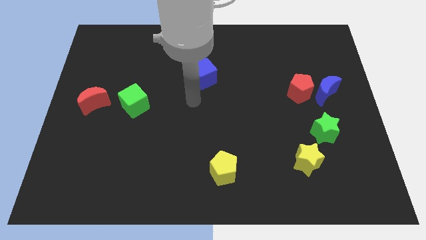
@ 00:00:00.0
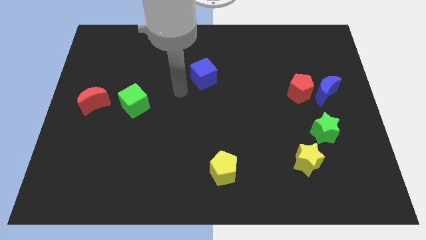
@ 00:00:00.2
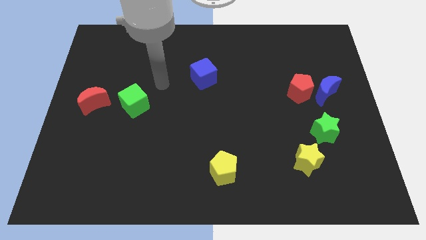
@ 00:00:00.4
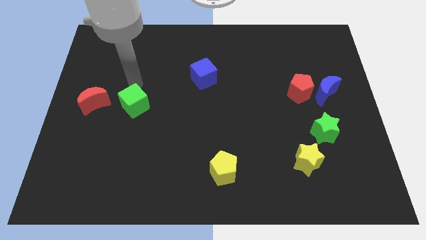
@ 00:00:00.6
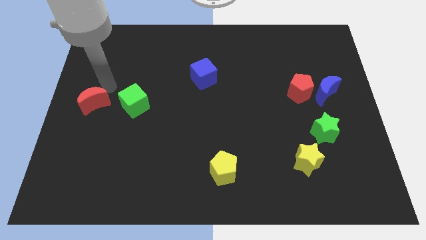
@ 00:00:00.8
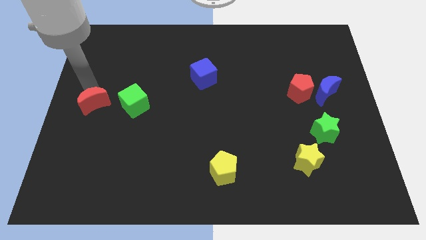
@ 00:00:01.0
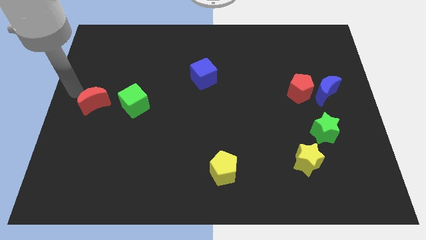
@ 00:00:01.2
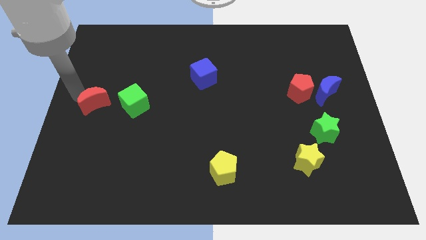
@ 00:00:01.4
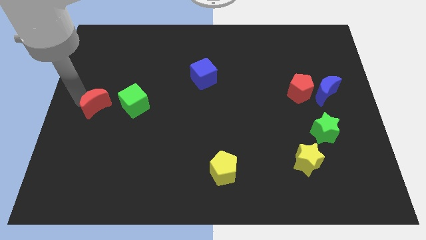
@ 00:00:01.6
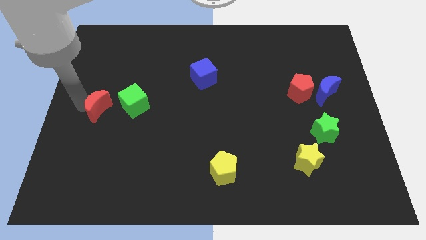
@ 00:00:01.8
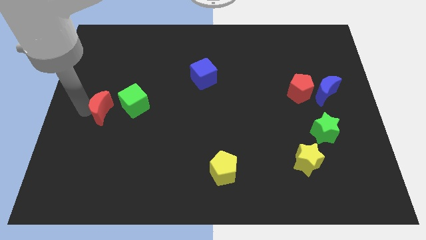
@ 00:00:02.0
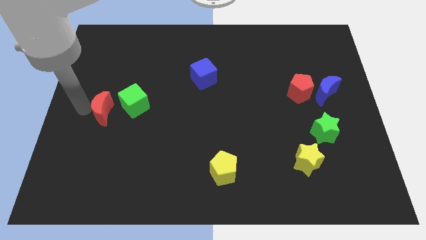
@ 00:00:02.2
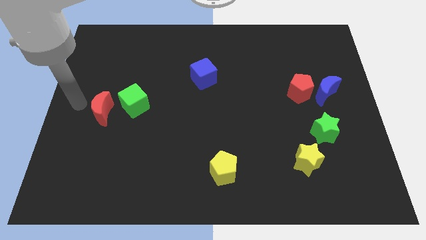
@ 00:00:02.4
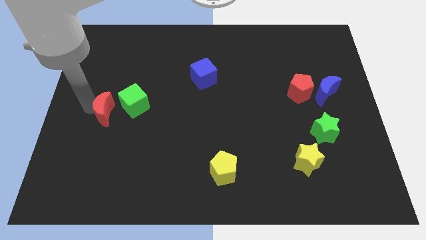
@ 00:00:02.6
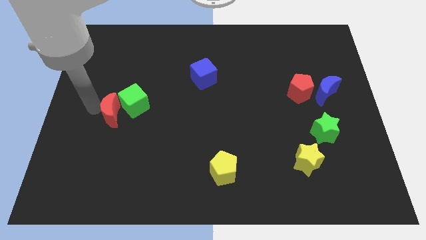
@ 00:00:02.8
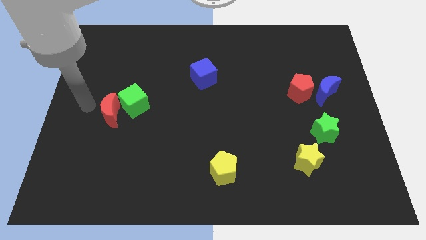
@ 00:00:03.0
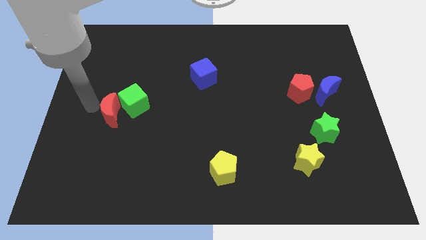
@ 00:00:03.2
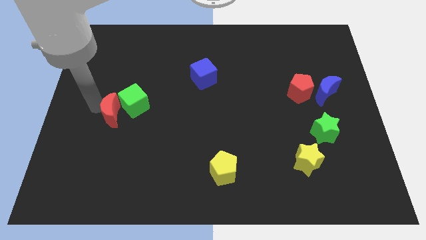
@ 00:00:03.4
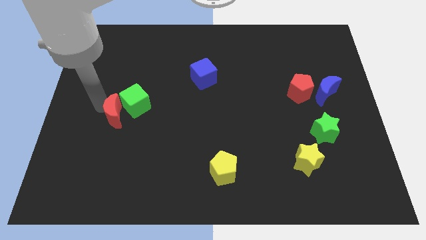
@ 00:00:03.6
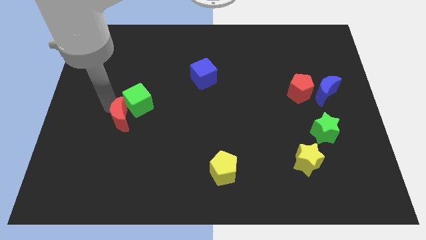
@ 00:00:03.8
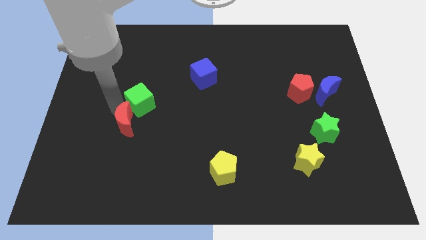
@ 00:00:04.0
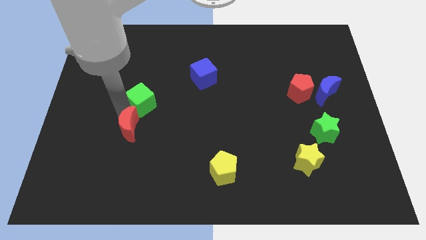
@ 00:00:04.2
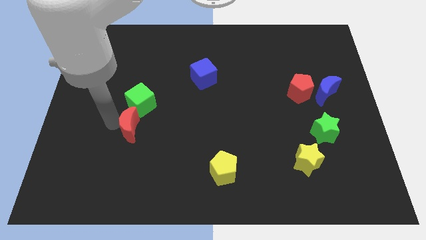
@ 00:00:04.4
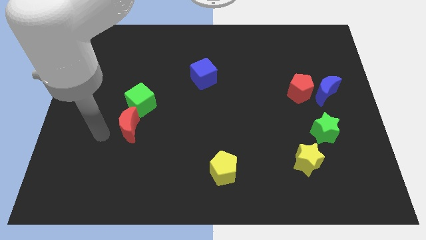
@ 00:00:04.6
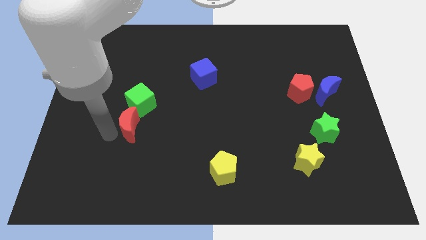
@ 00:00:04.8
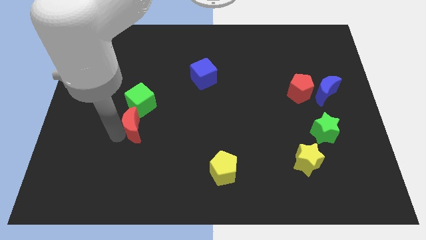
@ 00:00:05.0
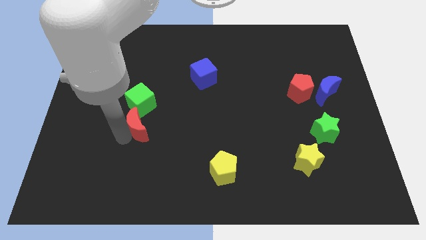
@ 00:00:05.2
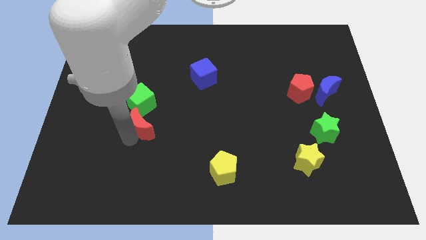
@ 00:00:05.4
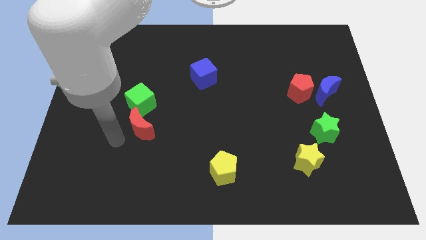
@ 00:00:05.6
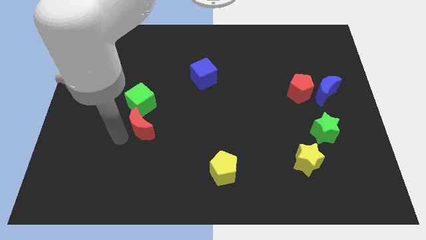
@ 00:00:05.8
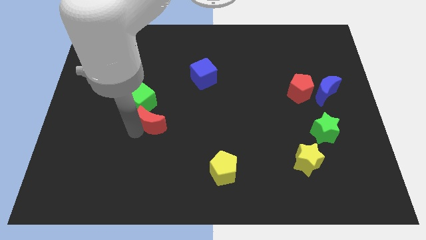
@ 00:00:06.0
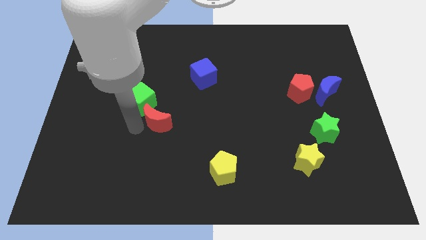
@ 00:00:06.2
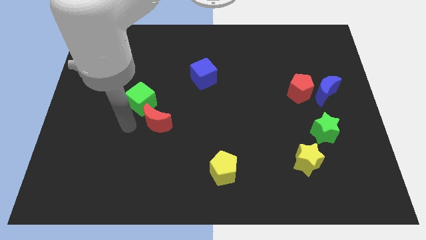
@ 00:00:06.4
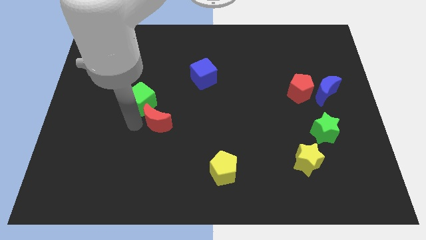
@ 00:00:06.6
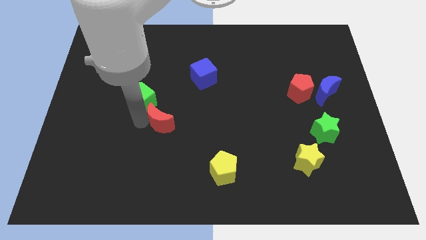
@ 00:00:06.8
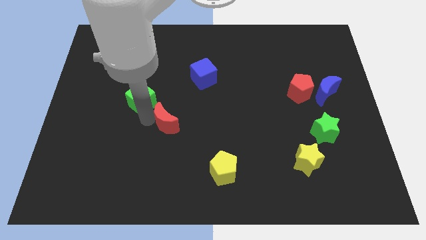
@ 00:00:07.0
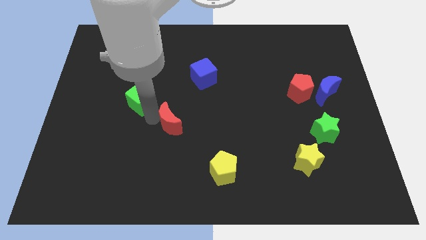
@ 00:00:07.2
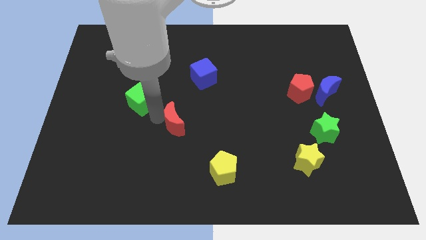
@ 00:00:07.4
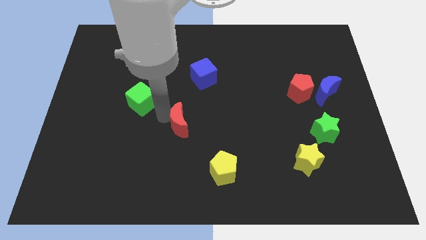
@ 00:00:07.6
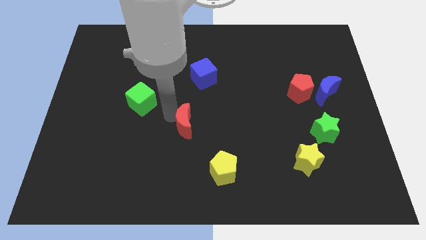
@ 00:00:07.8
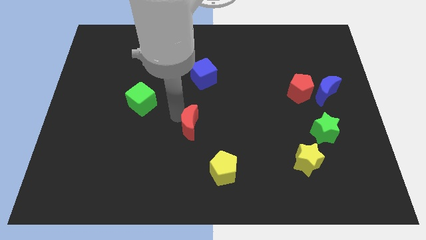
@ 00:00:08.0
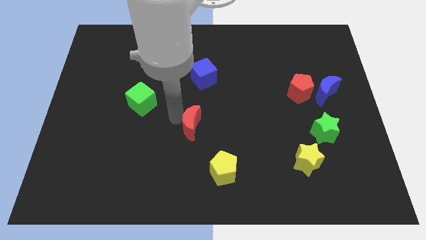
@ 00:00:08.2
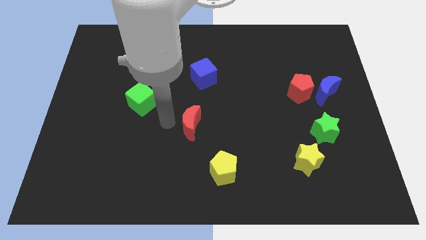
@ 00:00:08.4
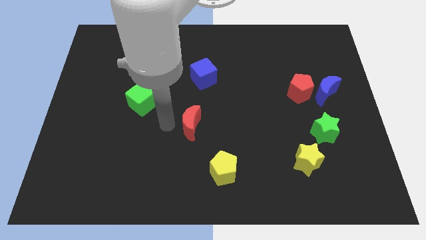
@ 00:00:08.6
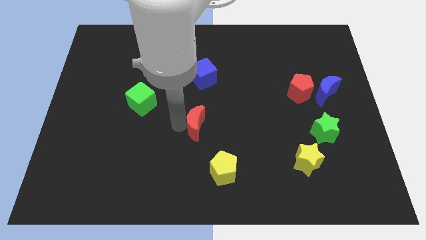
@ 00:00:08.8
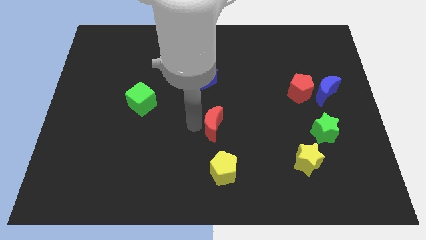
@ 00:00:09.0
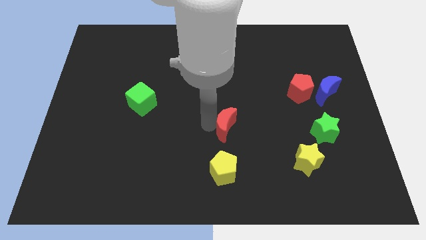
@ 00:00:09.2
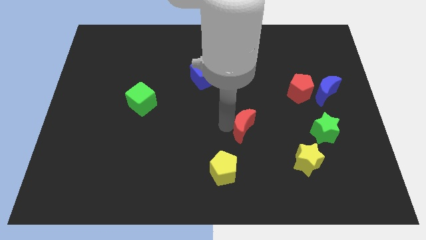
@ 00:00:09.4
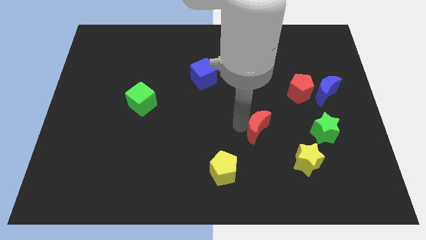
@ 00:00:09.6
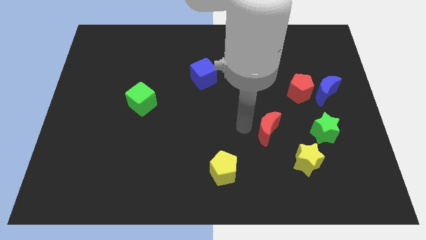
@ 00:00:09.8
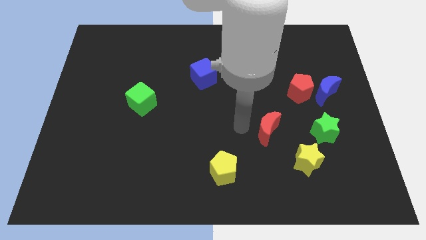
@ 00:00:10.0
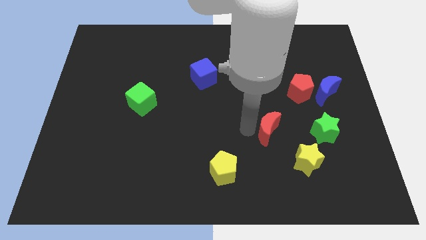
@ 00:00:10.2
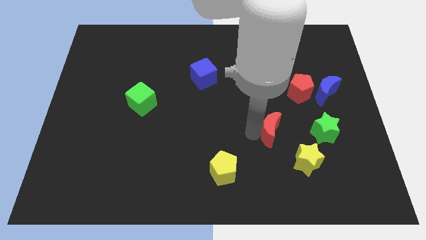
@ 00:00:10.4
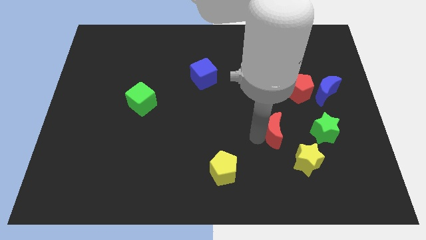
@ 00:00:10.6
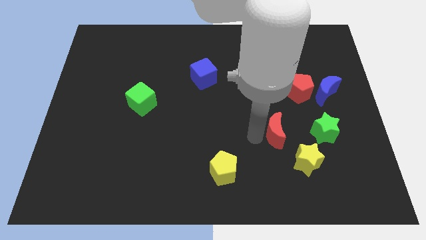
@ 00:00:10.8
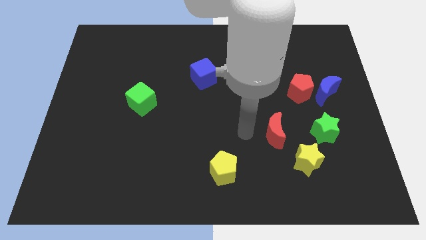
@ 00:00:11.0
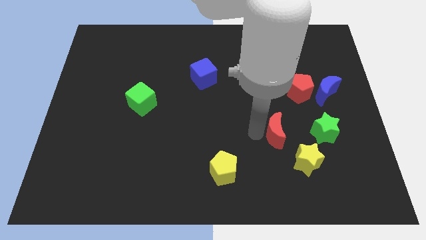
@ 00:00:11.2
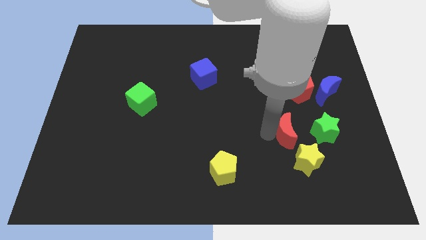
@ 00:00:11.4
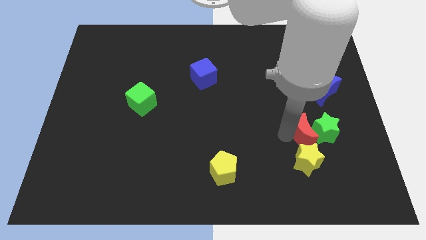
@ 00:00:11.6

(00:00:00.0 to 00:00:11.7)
slide the red moon close to the green star

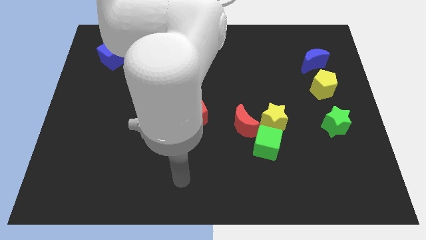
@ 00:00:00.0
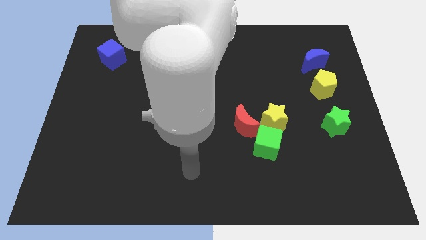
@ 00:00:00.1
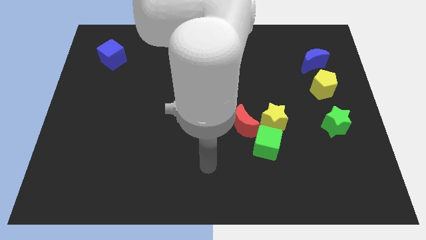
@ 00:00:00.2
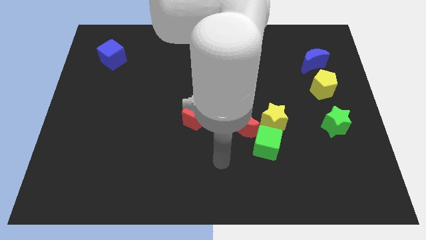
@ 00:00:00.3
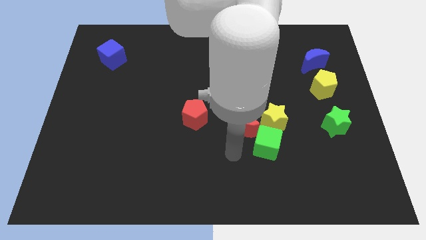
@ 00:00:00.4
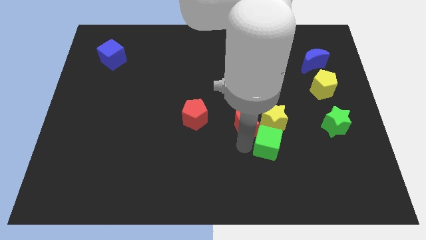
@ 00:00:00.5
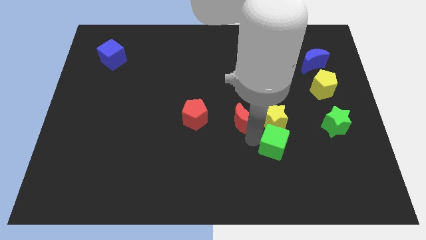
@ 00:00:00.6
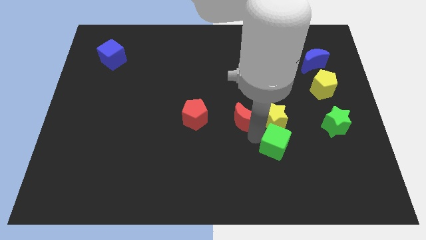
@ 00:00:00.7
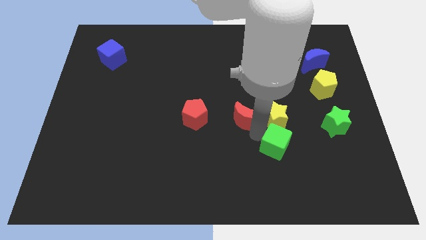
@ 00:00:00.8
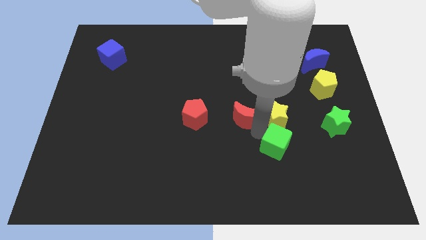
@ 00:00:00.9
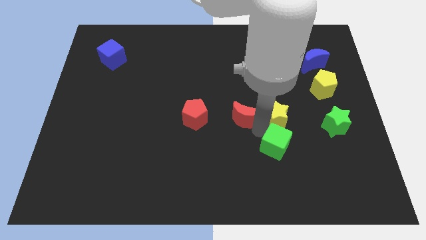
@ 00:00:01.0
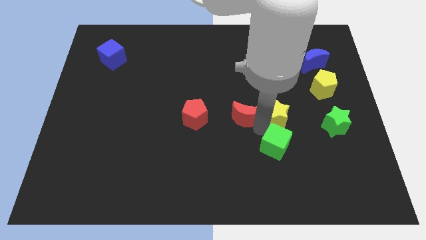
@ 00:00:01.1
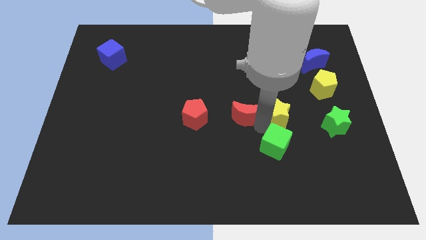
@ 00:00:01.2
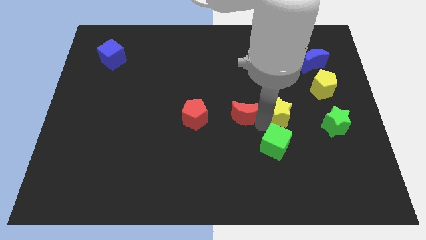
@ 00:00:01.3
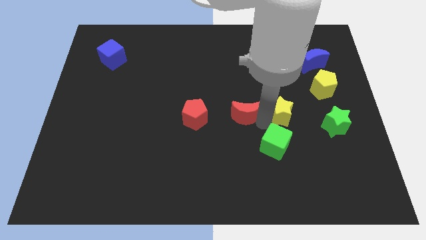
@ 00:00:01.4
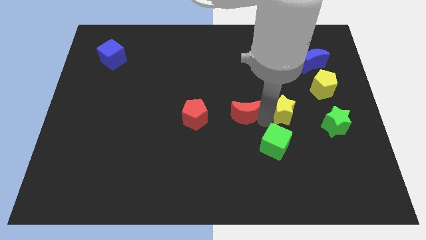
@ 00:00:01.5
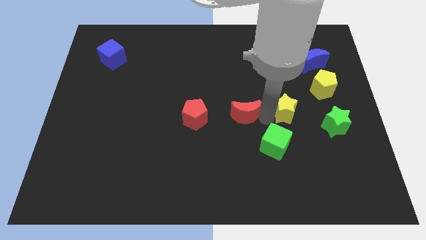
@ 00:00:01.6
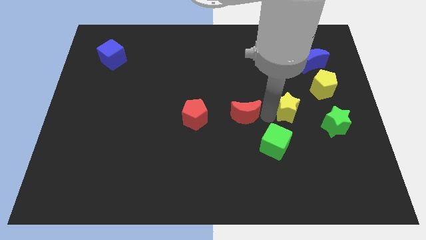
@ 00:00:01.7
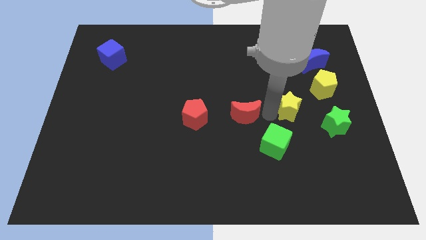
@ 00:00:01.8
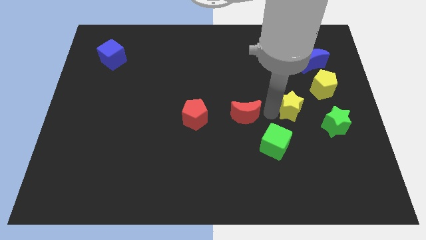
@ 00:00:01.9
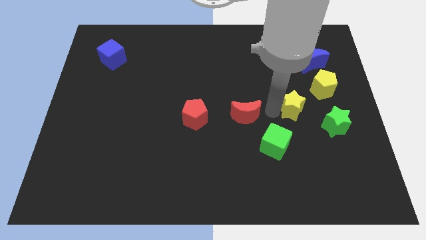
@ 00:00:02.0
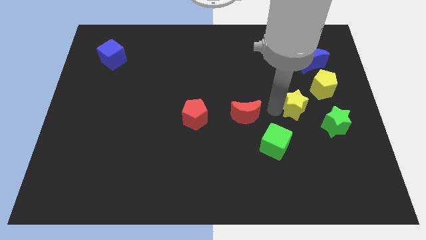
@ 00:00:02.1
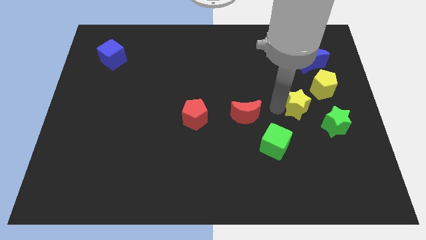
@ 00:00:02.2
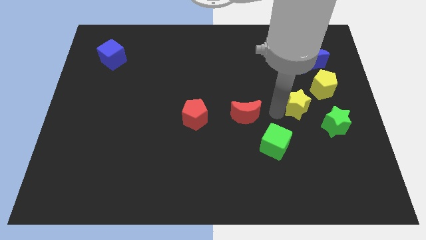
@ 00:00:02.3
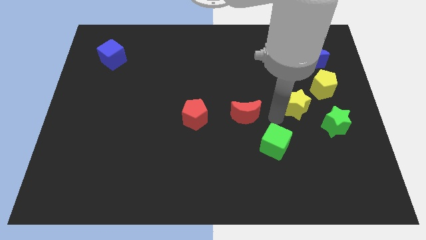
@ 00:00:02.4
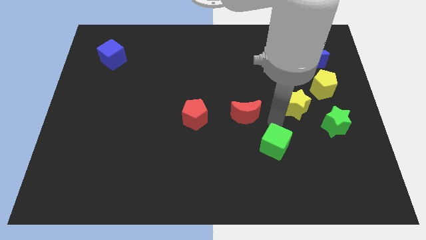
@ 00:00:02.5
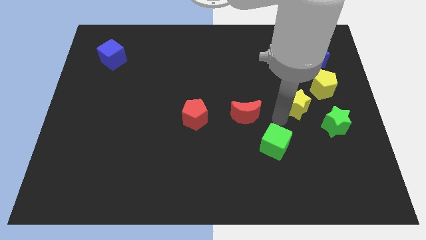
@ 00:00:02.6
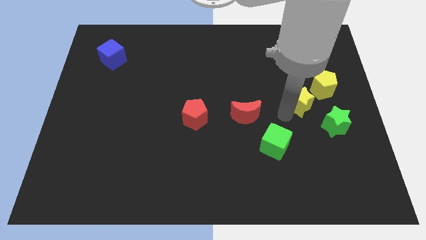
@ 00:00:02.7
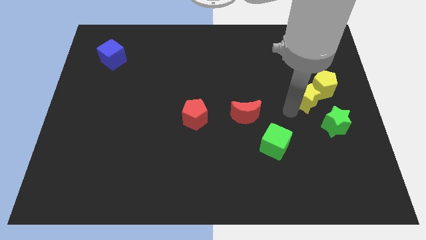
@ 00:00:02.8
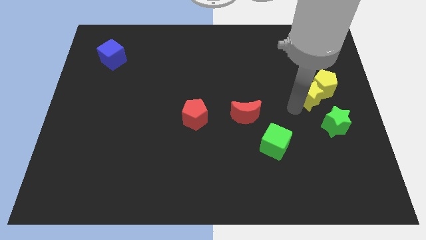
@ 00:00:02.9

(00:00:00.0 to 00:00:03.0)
slide the yellow star next to the yellow pentagon
